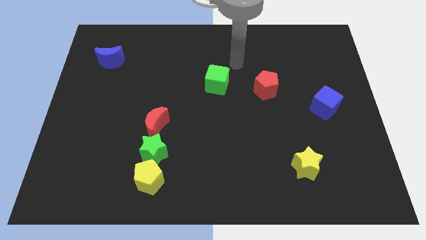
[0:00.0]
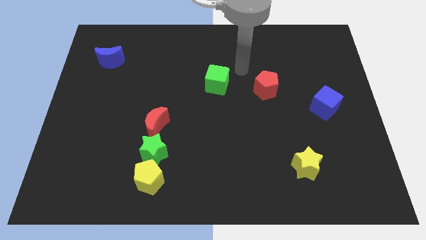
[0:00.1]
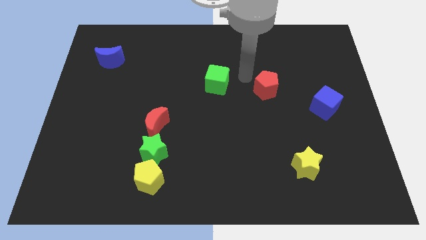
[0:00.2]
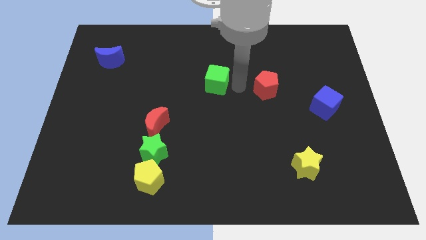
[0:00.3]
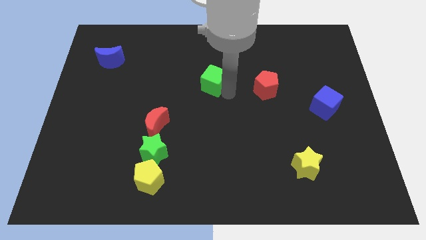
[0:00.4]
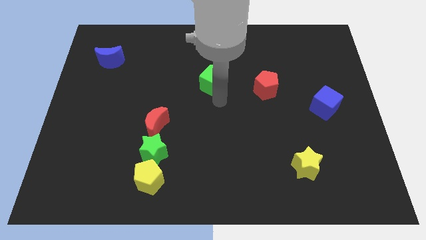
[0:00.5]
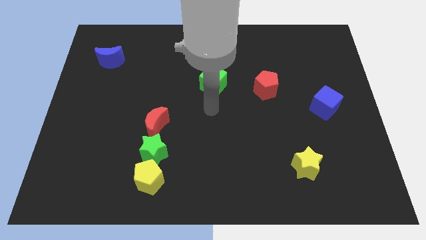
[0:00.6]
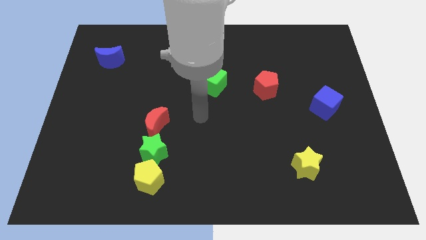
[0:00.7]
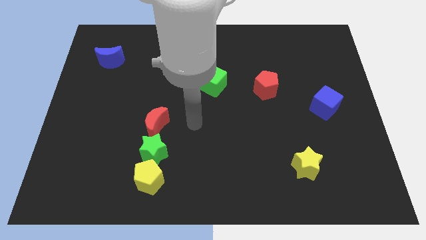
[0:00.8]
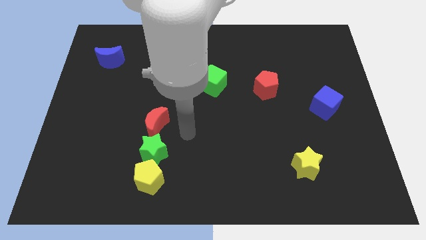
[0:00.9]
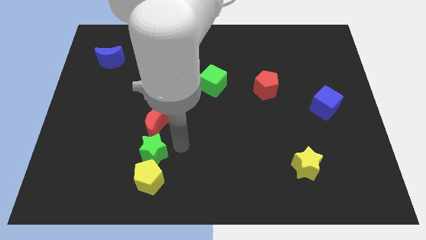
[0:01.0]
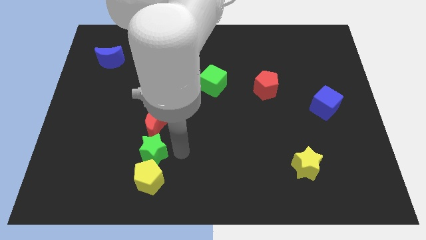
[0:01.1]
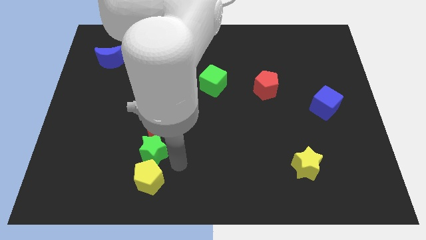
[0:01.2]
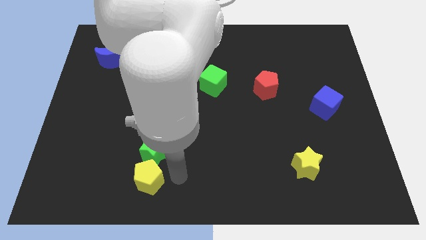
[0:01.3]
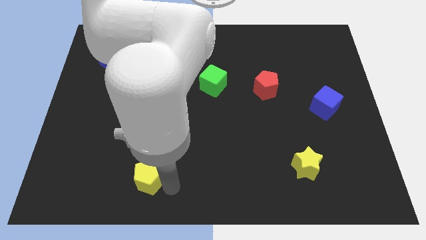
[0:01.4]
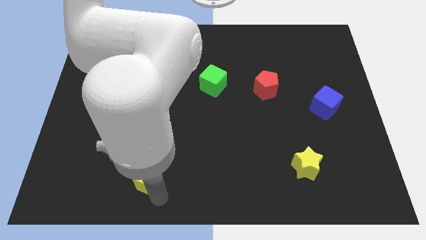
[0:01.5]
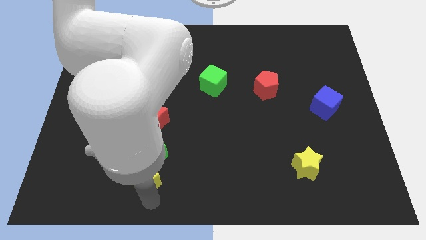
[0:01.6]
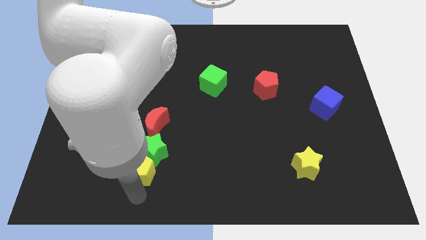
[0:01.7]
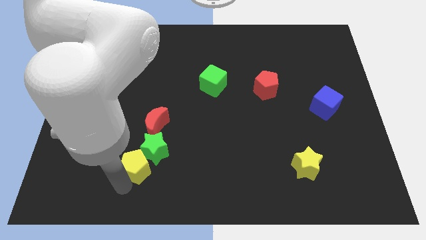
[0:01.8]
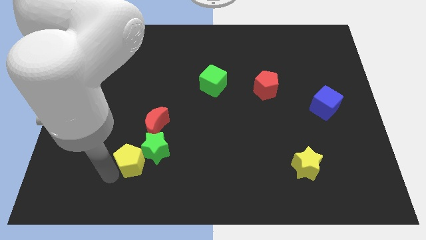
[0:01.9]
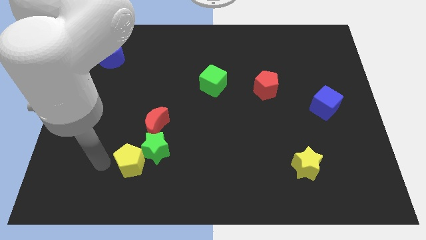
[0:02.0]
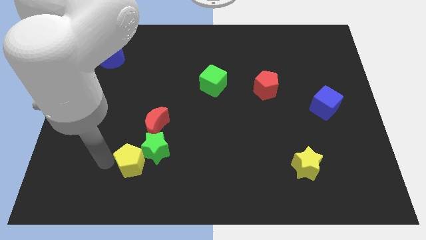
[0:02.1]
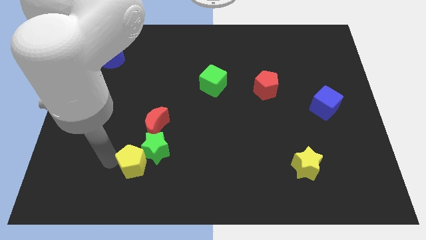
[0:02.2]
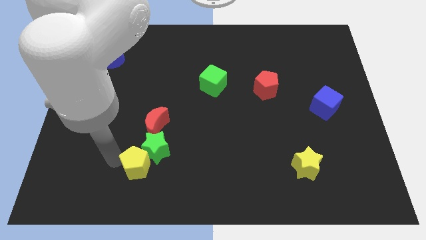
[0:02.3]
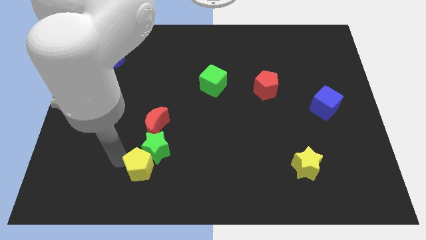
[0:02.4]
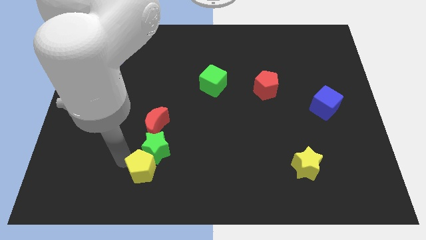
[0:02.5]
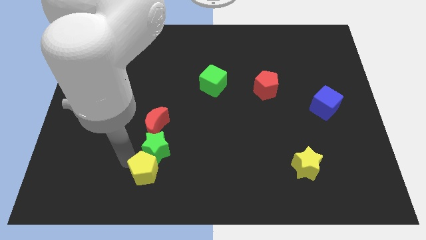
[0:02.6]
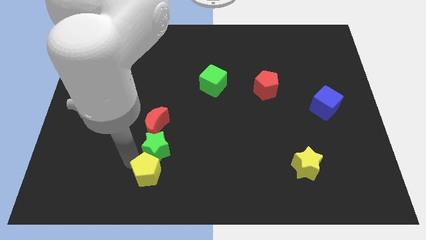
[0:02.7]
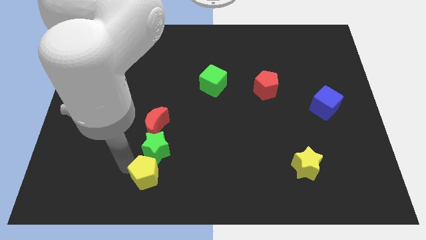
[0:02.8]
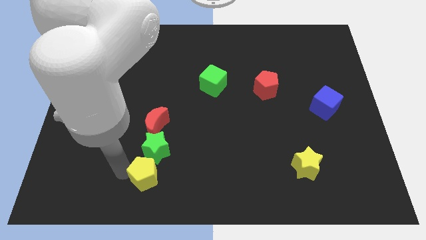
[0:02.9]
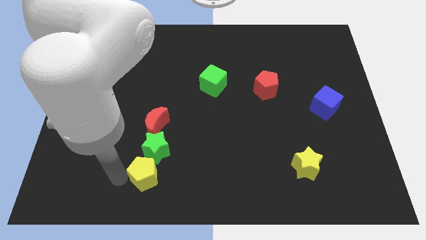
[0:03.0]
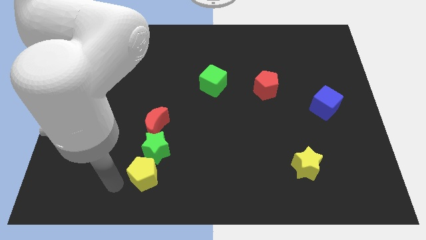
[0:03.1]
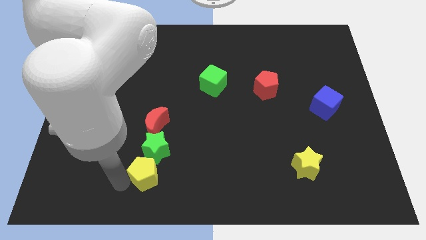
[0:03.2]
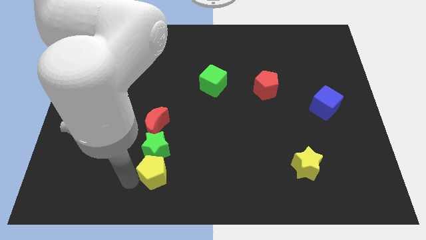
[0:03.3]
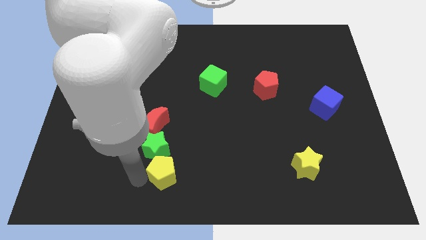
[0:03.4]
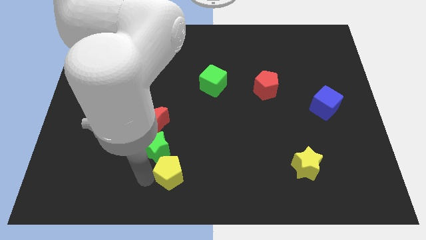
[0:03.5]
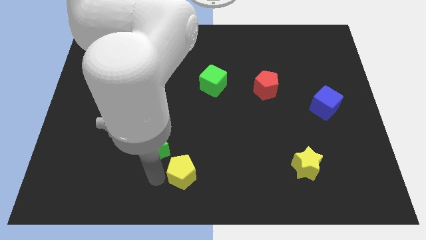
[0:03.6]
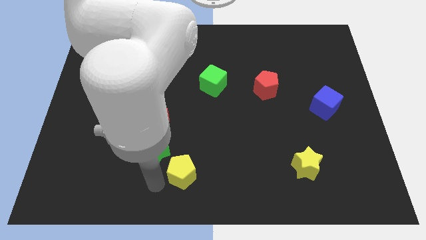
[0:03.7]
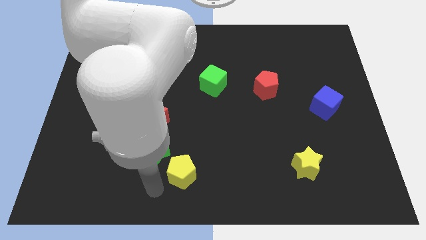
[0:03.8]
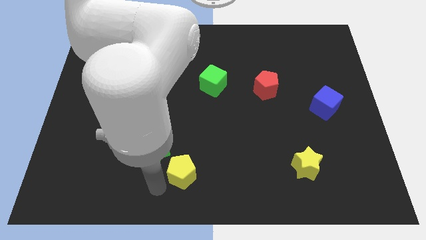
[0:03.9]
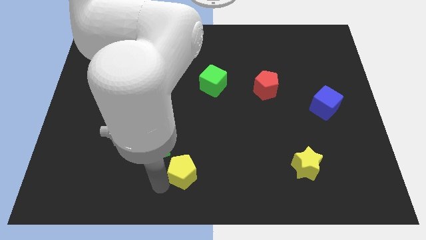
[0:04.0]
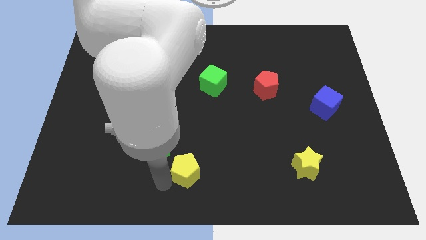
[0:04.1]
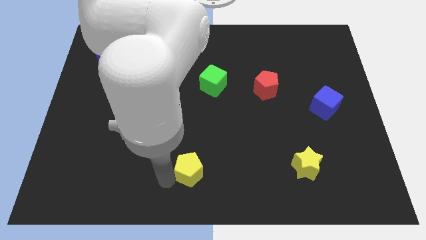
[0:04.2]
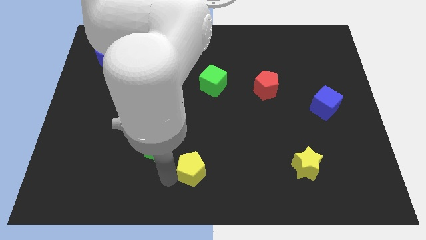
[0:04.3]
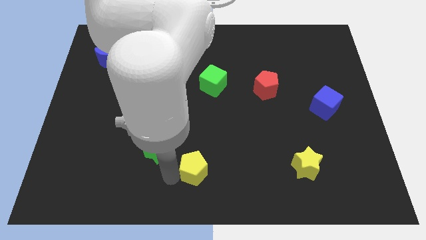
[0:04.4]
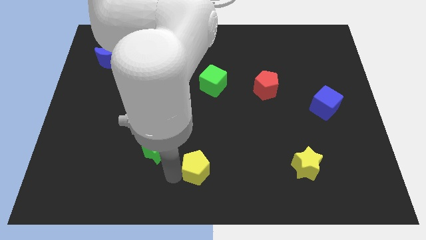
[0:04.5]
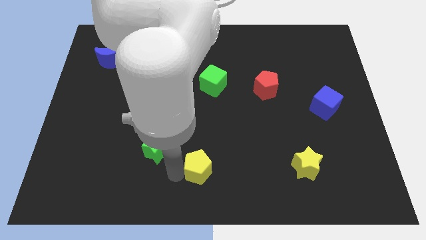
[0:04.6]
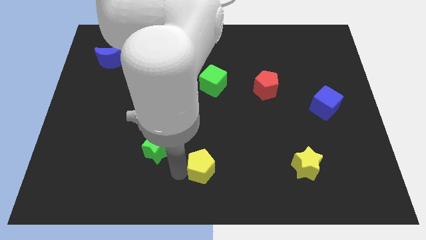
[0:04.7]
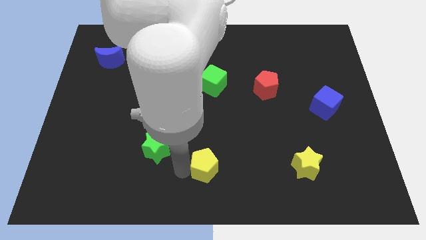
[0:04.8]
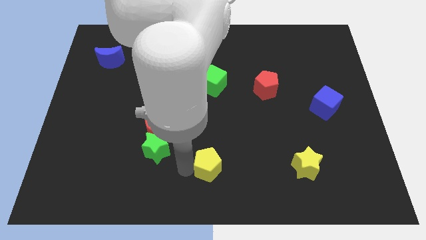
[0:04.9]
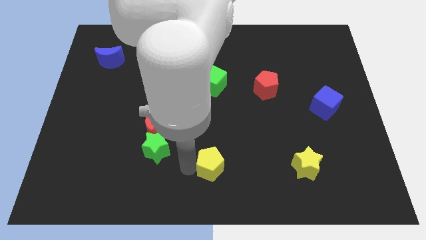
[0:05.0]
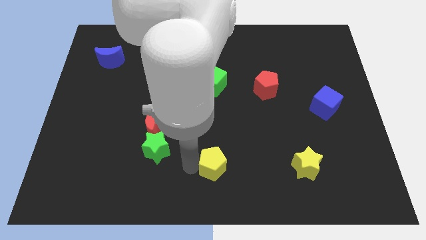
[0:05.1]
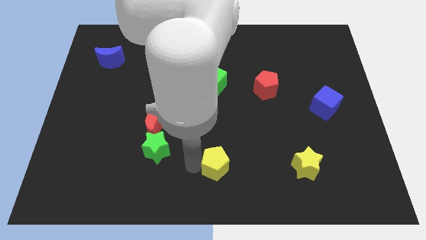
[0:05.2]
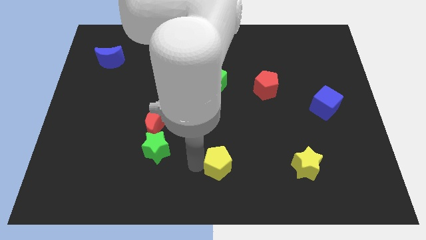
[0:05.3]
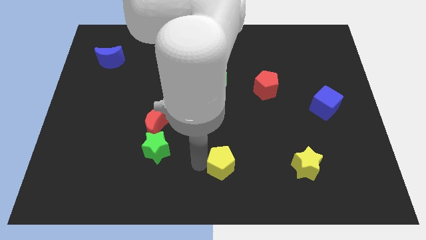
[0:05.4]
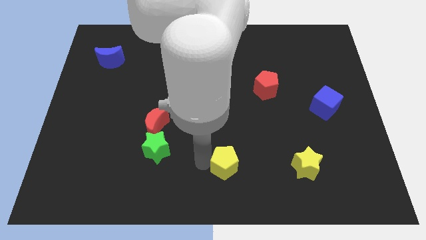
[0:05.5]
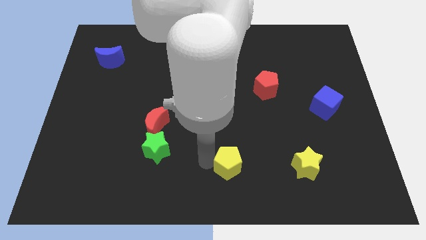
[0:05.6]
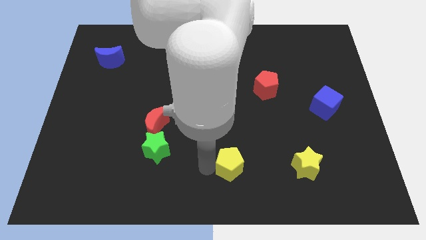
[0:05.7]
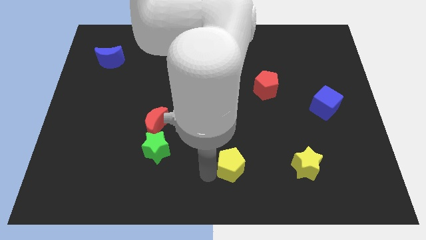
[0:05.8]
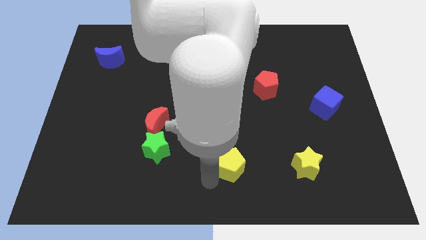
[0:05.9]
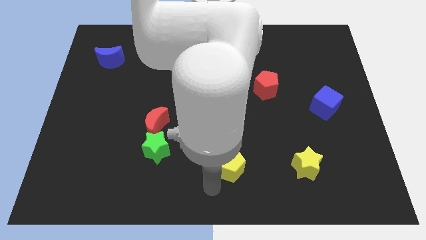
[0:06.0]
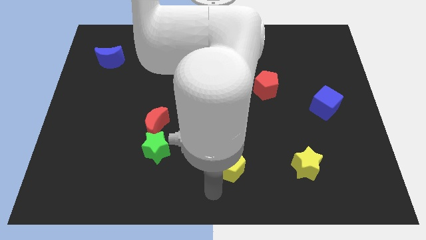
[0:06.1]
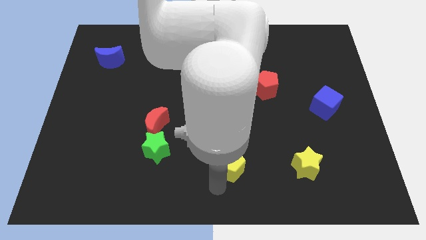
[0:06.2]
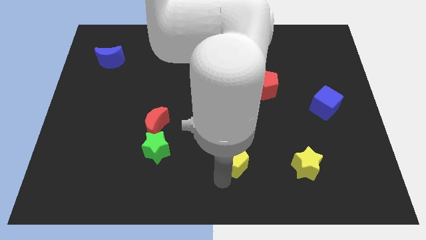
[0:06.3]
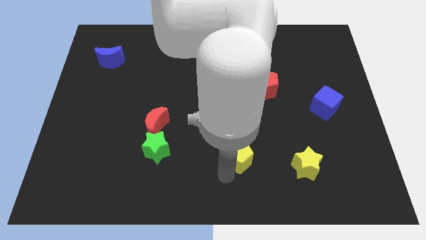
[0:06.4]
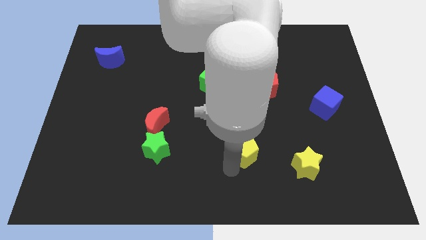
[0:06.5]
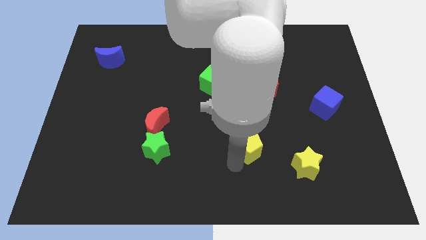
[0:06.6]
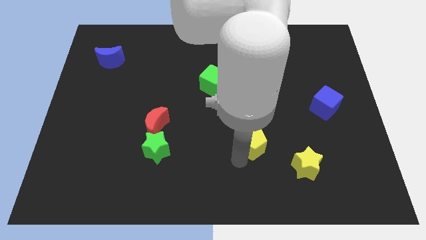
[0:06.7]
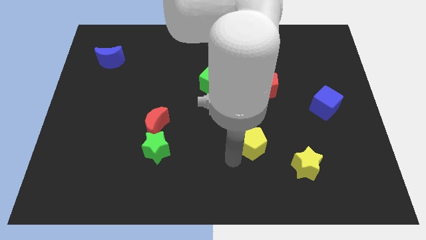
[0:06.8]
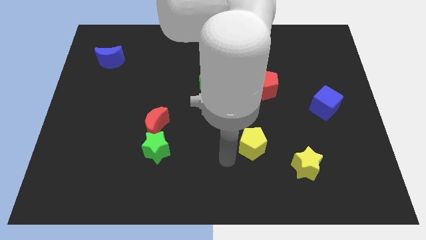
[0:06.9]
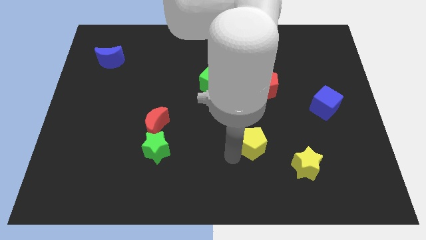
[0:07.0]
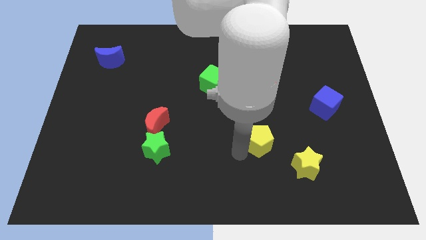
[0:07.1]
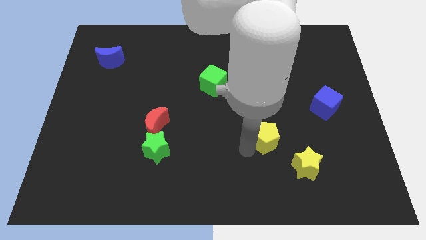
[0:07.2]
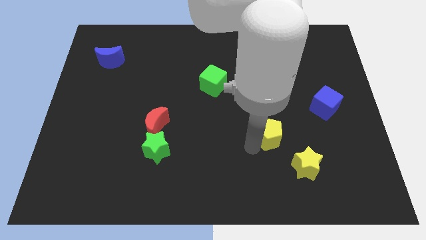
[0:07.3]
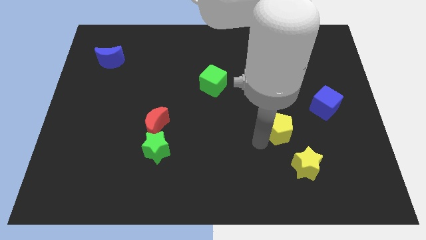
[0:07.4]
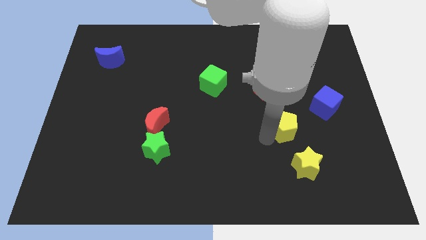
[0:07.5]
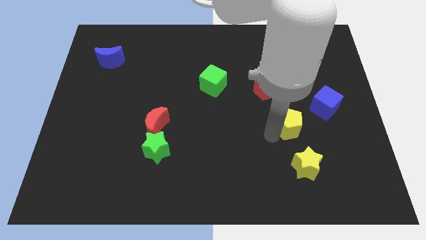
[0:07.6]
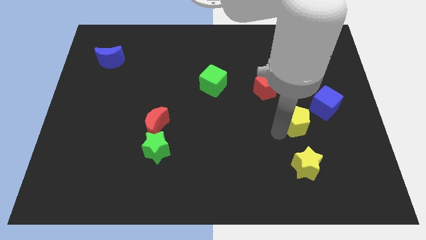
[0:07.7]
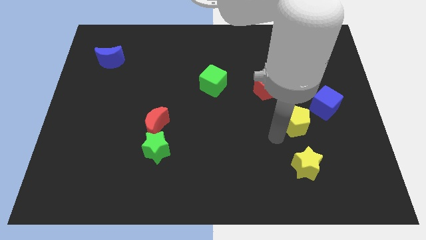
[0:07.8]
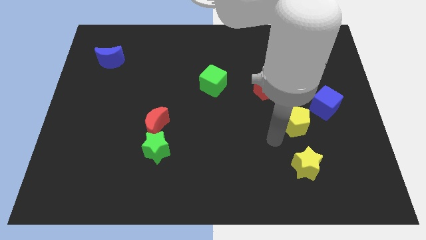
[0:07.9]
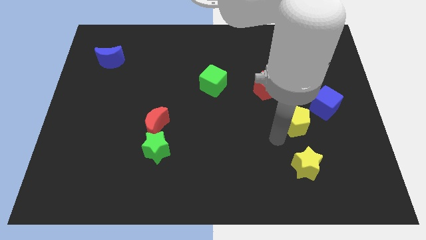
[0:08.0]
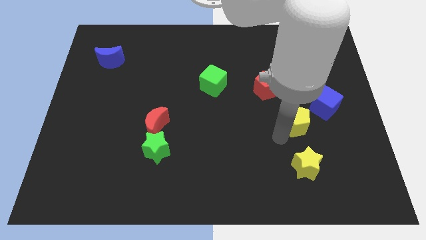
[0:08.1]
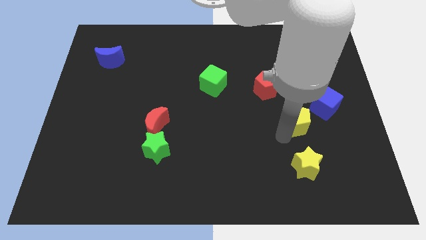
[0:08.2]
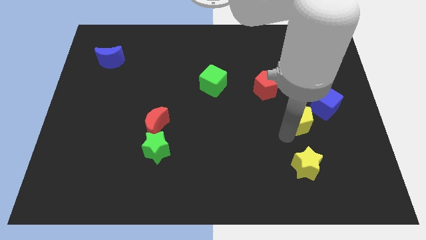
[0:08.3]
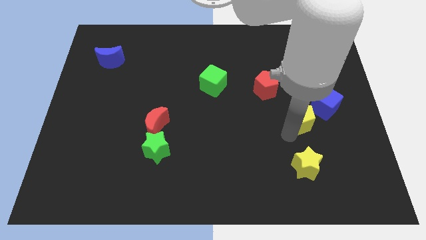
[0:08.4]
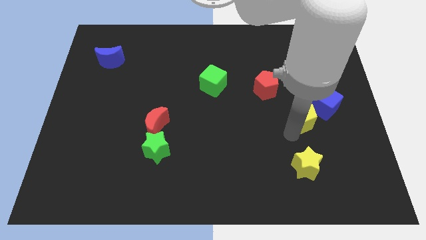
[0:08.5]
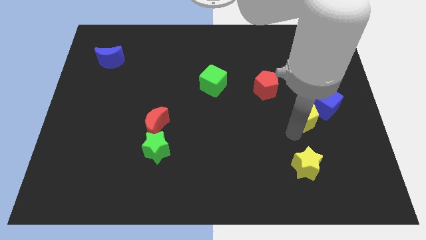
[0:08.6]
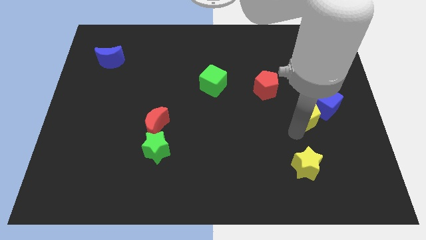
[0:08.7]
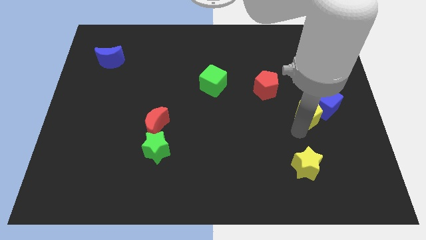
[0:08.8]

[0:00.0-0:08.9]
push the yellow pentagon close to the blue cube
